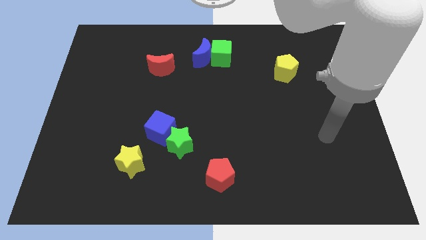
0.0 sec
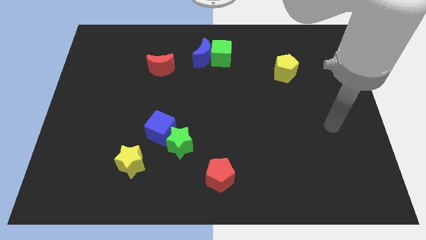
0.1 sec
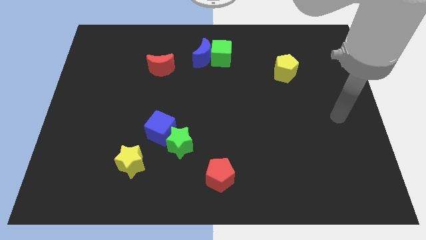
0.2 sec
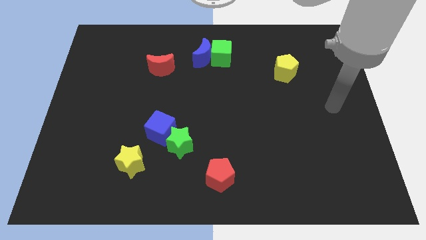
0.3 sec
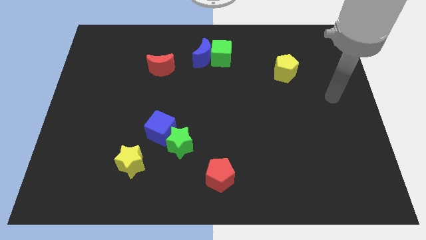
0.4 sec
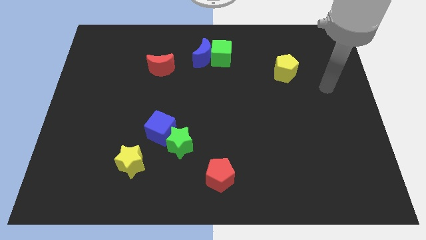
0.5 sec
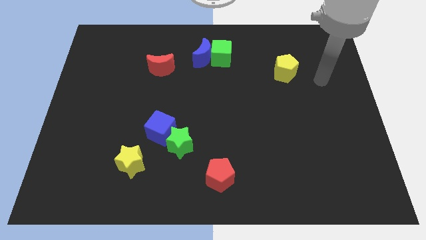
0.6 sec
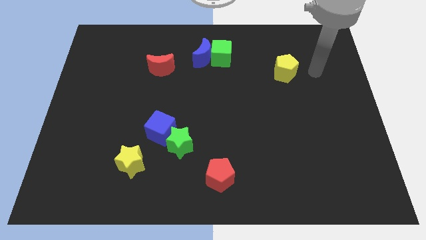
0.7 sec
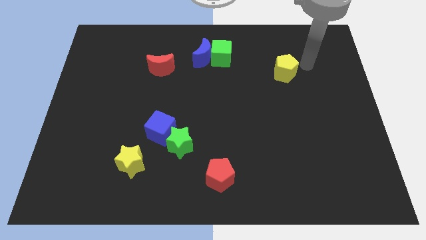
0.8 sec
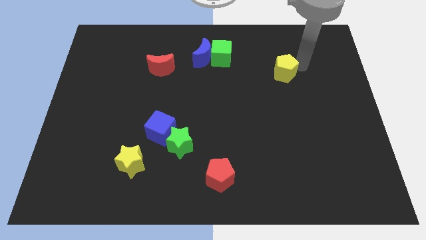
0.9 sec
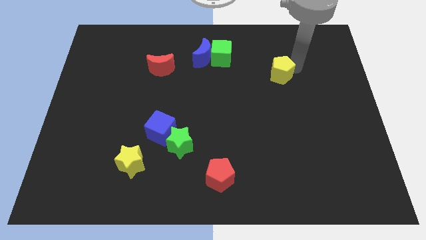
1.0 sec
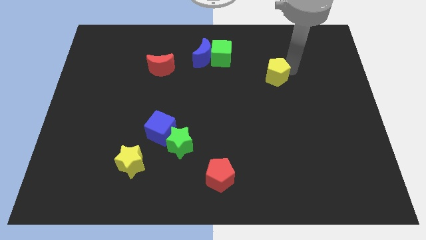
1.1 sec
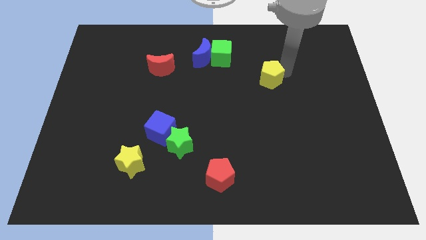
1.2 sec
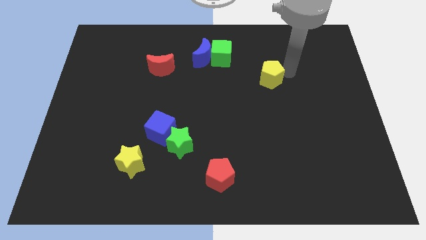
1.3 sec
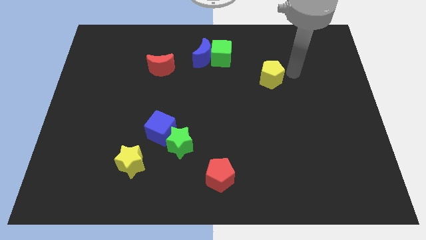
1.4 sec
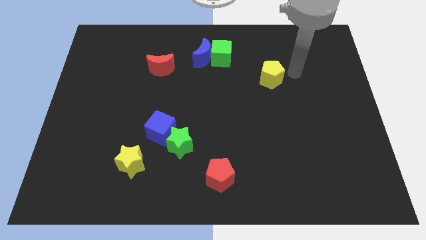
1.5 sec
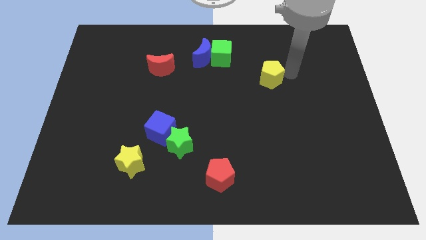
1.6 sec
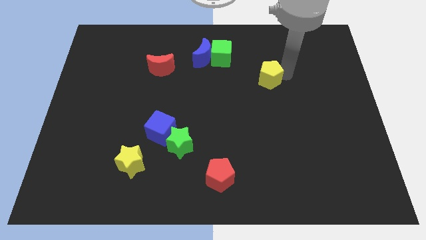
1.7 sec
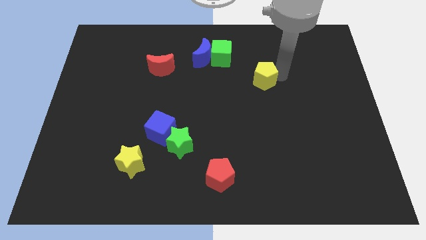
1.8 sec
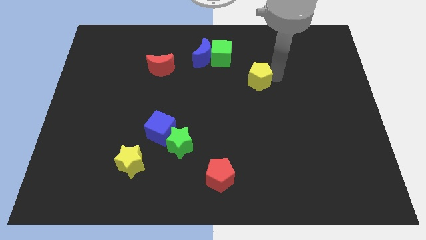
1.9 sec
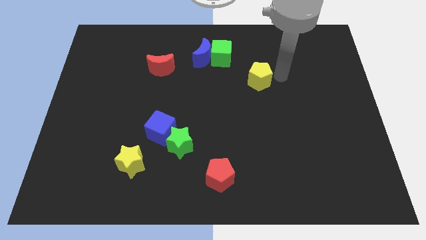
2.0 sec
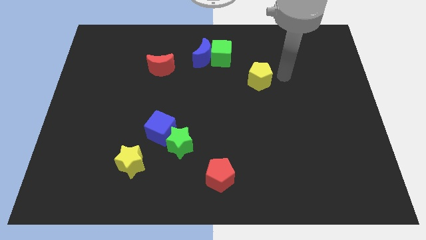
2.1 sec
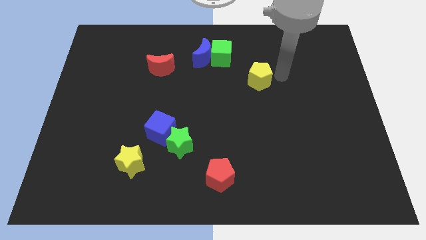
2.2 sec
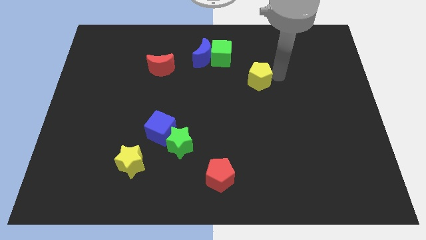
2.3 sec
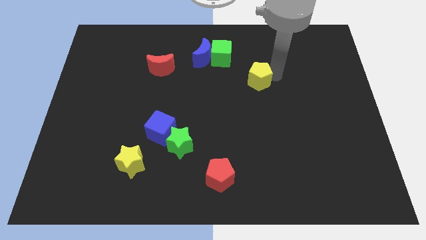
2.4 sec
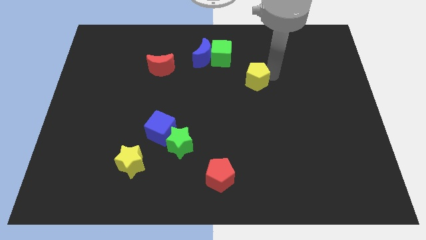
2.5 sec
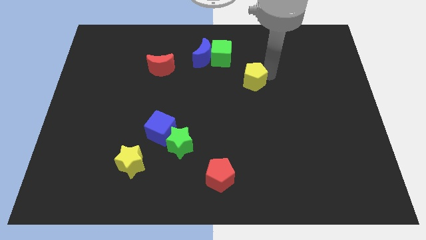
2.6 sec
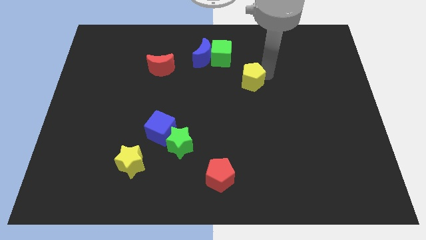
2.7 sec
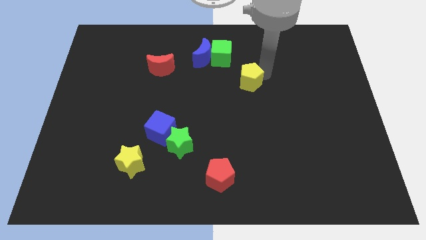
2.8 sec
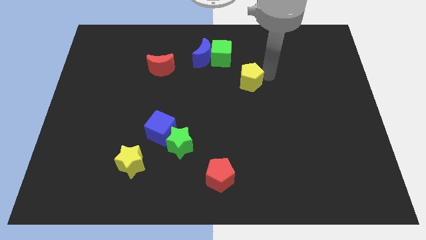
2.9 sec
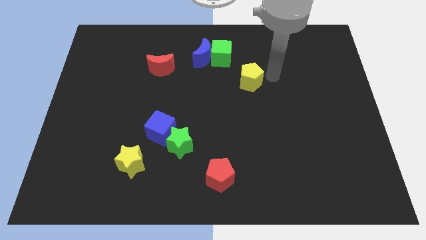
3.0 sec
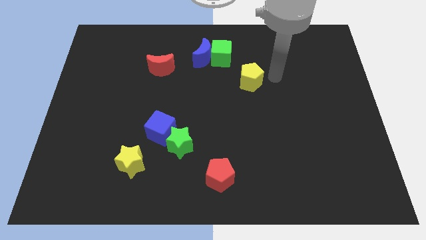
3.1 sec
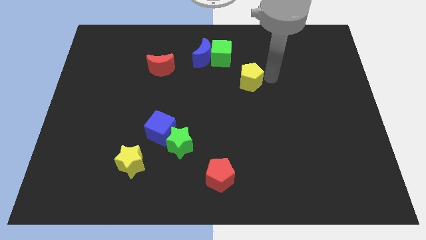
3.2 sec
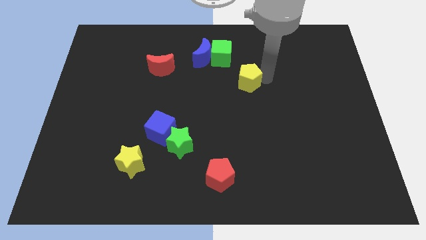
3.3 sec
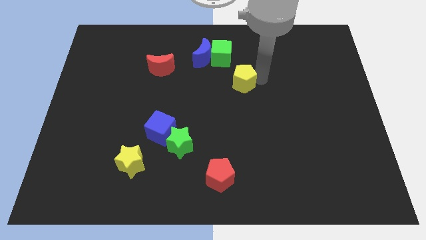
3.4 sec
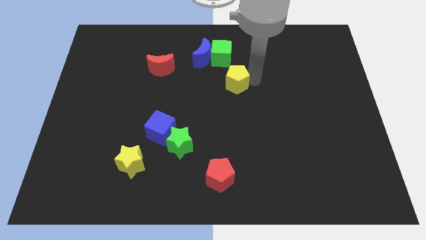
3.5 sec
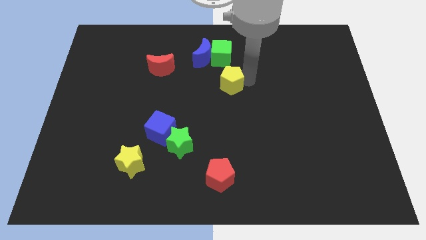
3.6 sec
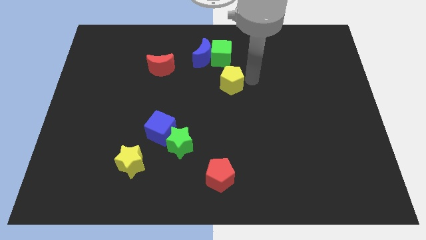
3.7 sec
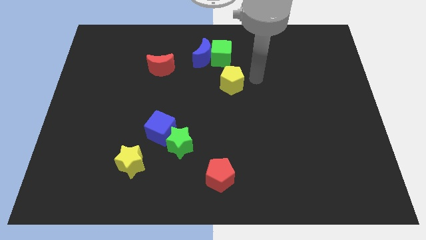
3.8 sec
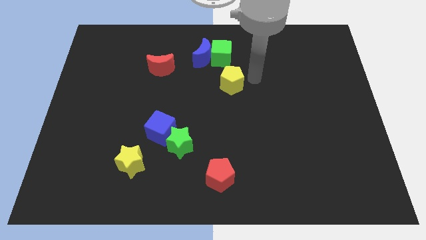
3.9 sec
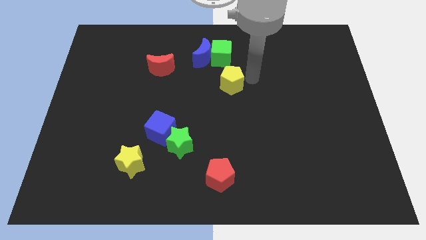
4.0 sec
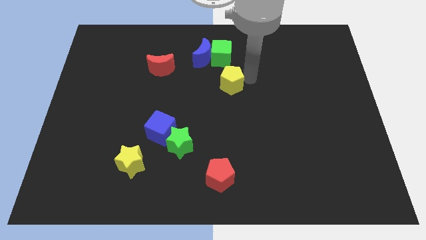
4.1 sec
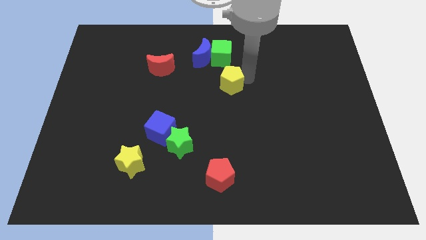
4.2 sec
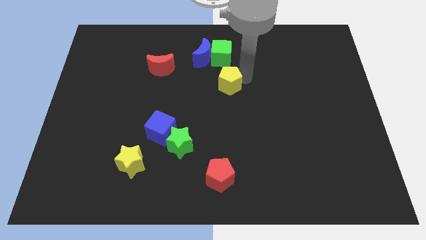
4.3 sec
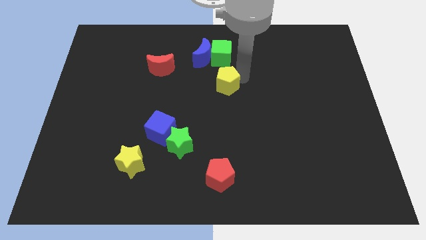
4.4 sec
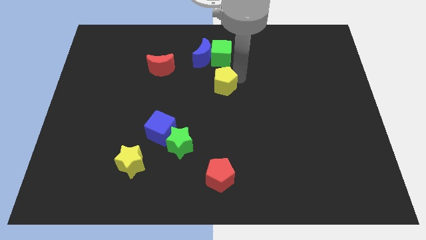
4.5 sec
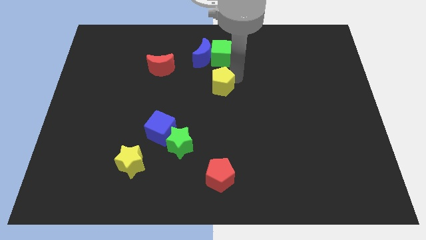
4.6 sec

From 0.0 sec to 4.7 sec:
move the yellow pentagon to the bottom of the blue moon

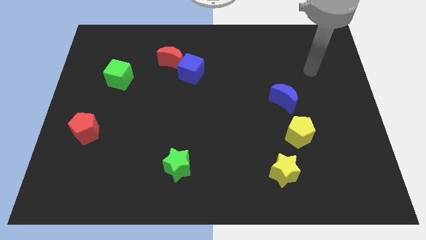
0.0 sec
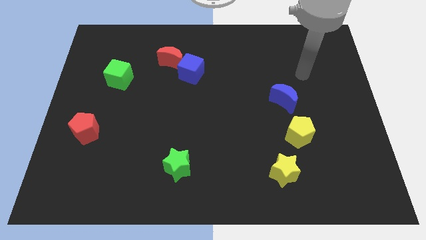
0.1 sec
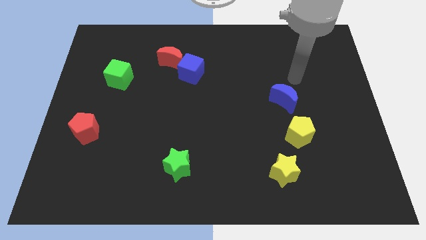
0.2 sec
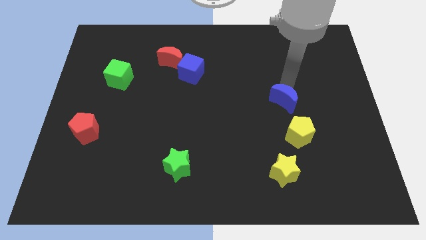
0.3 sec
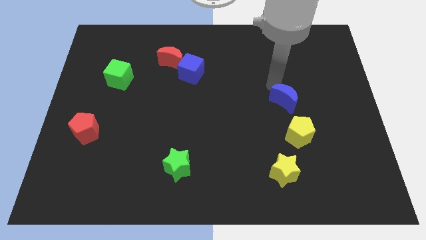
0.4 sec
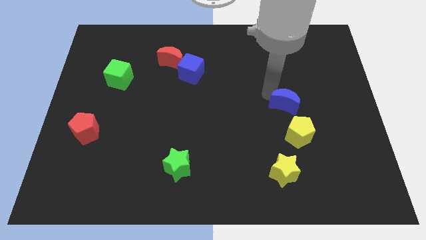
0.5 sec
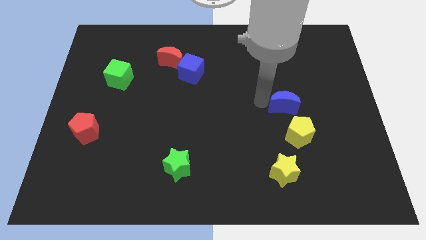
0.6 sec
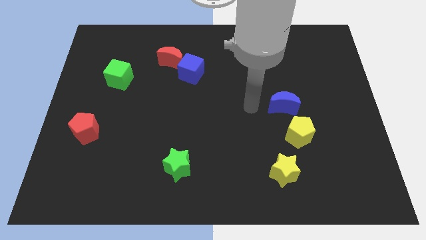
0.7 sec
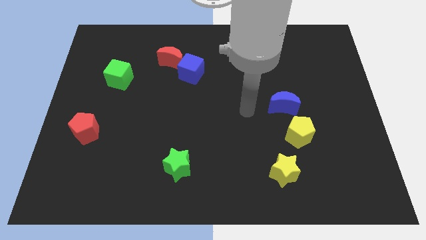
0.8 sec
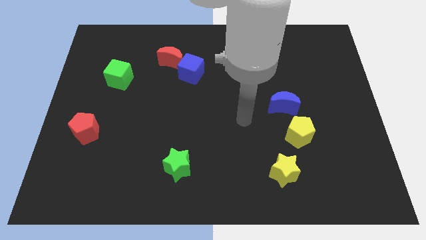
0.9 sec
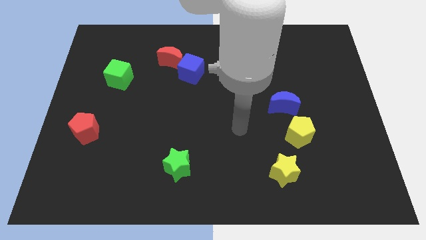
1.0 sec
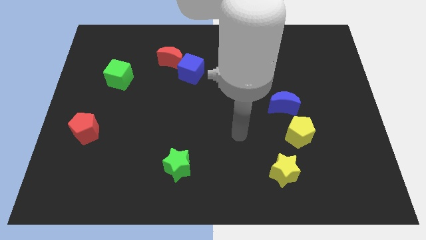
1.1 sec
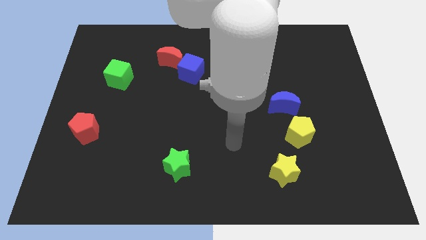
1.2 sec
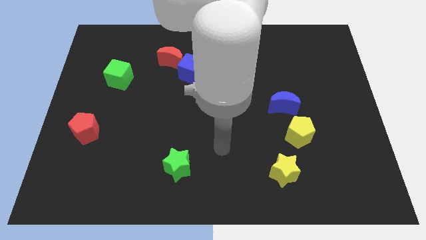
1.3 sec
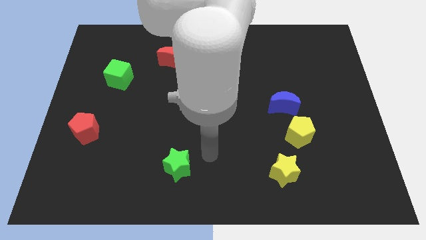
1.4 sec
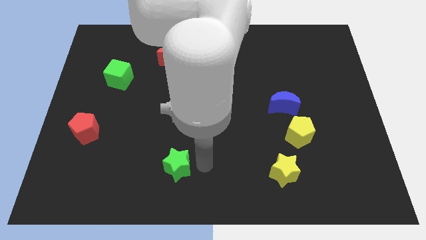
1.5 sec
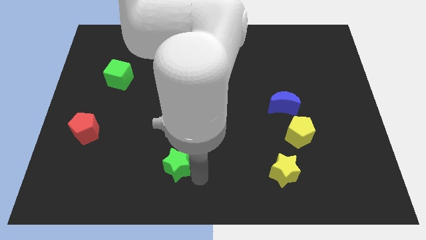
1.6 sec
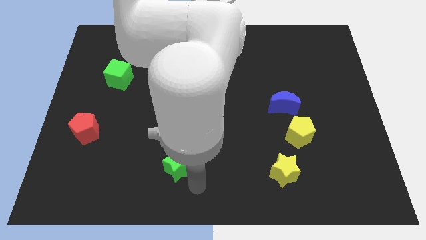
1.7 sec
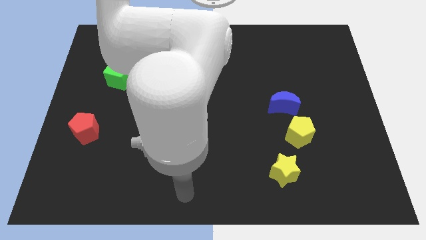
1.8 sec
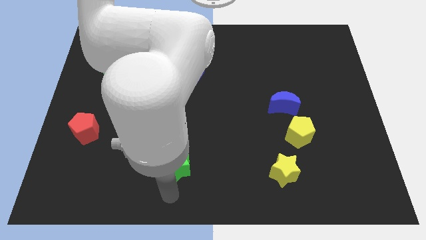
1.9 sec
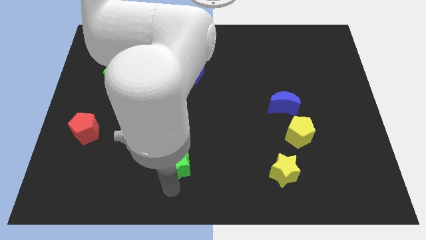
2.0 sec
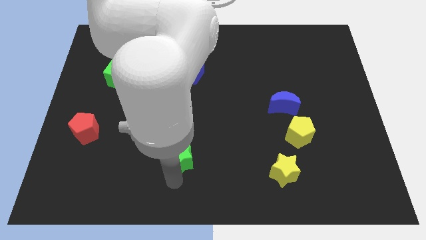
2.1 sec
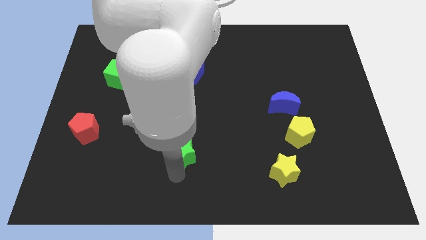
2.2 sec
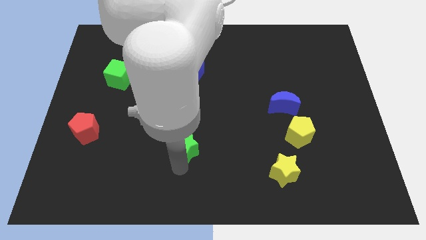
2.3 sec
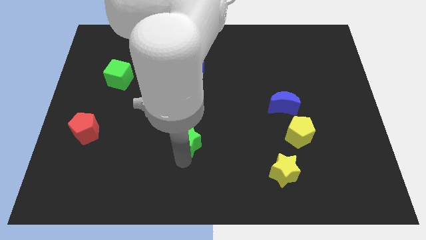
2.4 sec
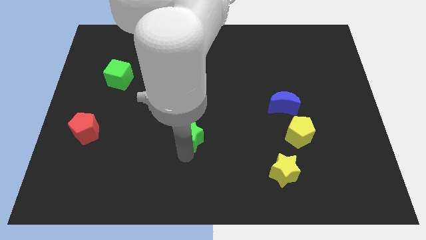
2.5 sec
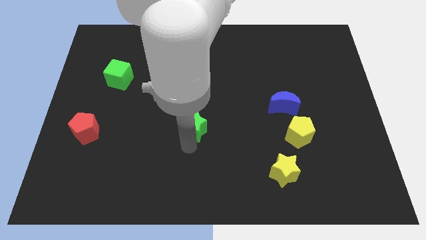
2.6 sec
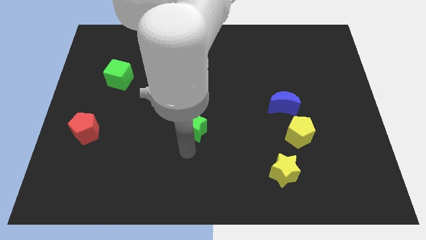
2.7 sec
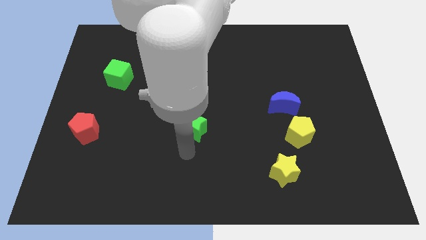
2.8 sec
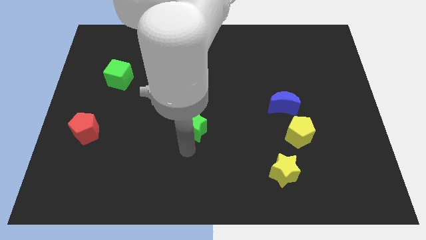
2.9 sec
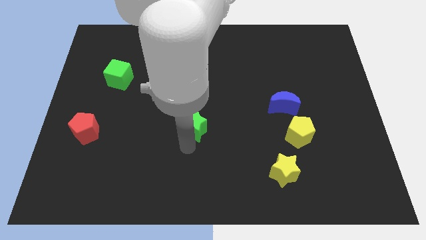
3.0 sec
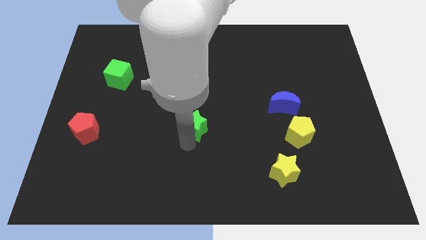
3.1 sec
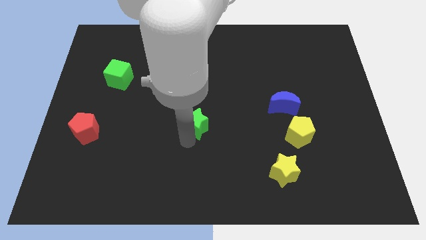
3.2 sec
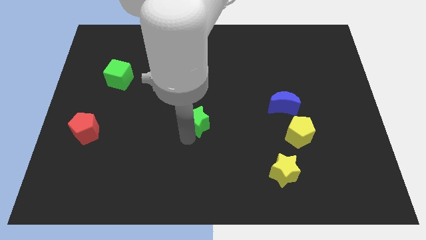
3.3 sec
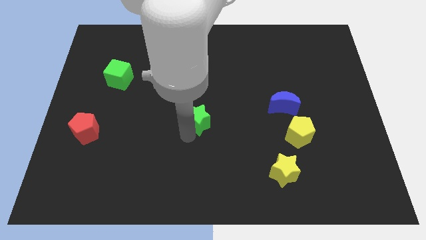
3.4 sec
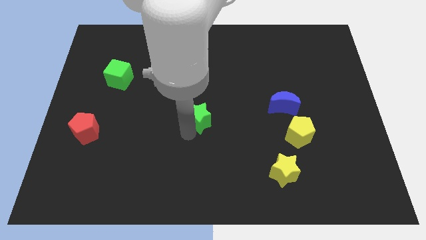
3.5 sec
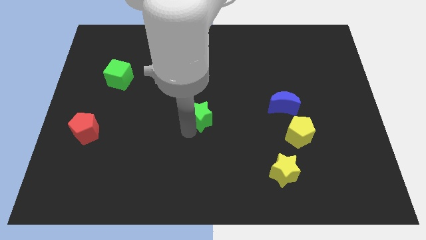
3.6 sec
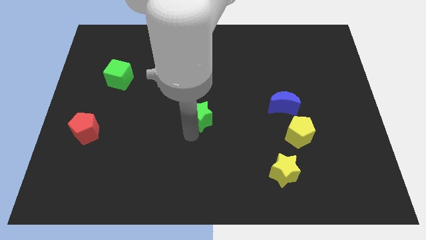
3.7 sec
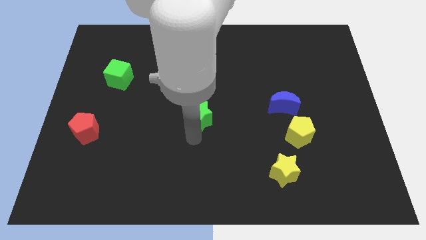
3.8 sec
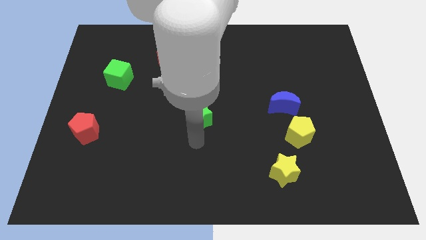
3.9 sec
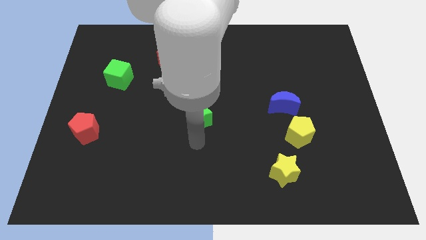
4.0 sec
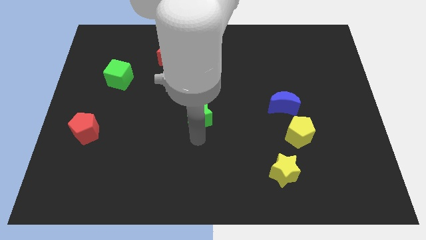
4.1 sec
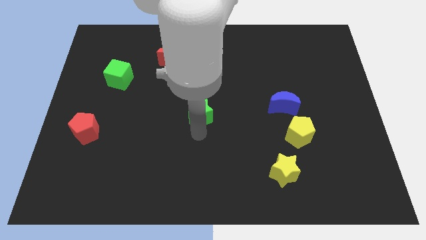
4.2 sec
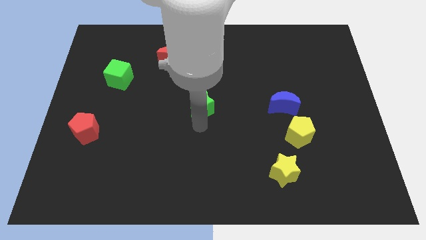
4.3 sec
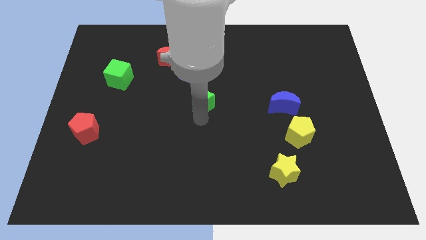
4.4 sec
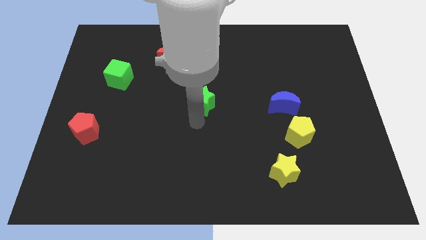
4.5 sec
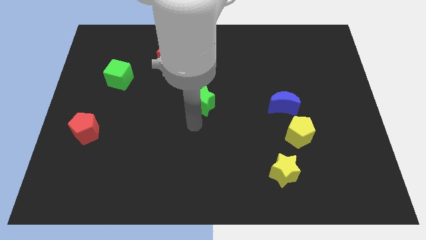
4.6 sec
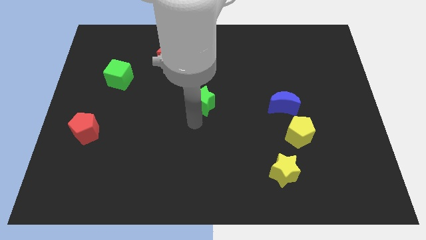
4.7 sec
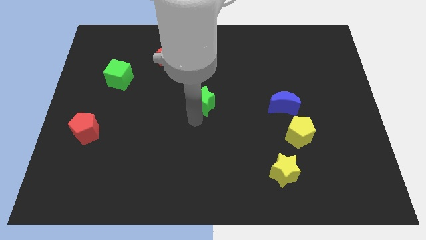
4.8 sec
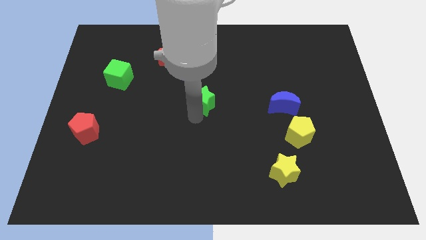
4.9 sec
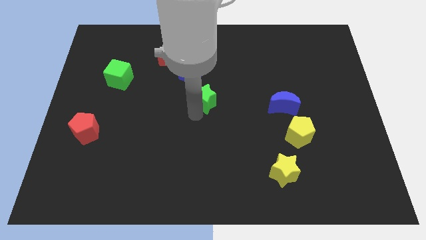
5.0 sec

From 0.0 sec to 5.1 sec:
slide the green star to the bottom right of the blue cube
